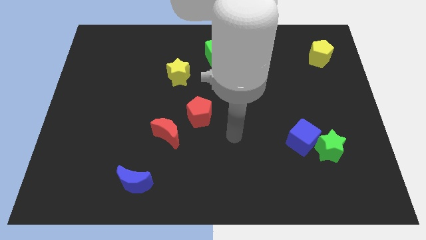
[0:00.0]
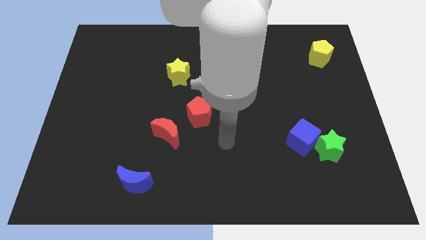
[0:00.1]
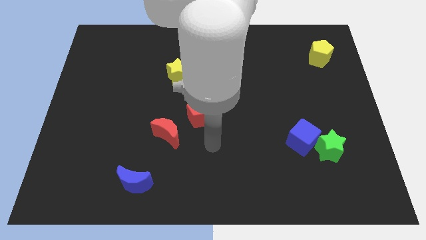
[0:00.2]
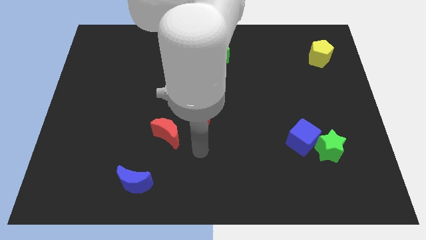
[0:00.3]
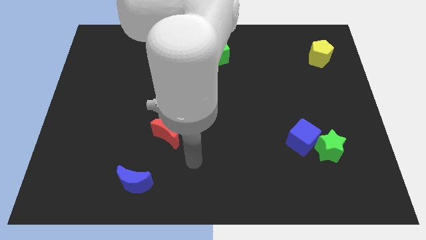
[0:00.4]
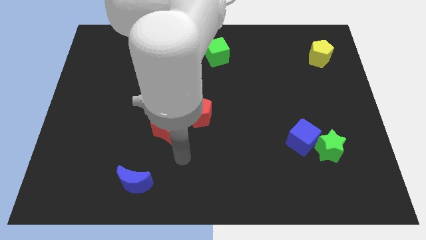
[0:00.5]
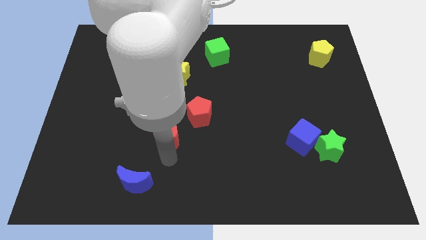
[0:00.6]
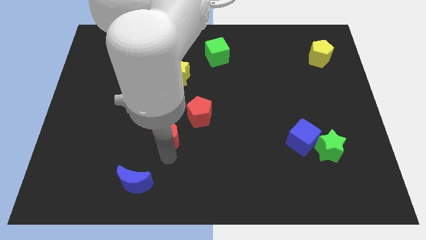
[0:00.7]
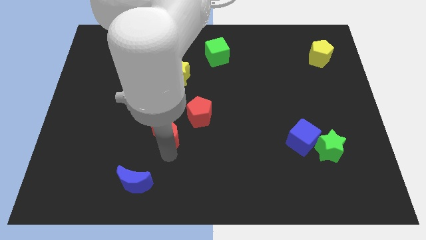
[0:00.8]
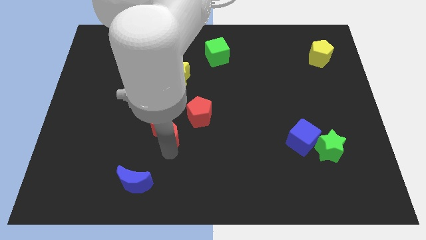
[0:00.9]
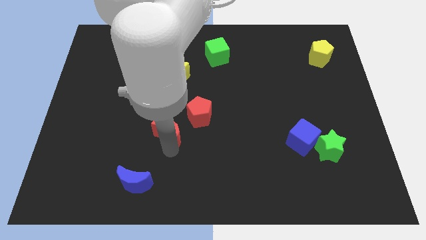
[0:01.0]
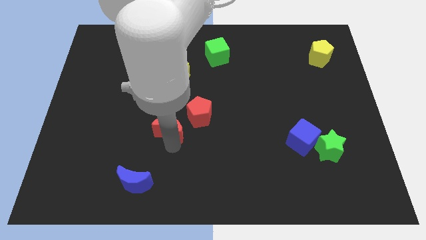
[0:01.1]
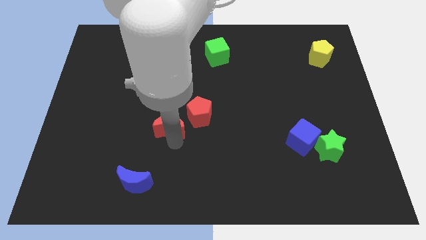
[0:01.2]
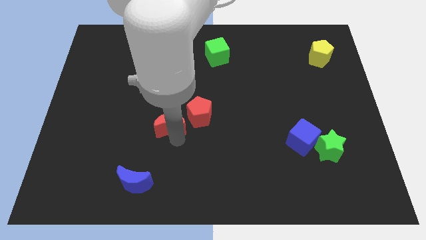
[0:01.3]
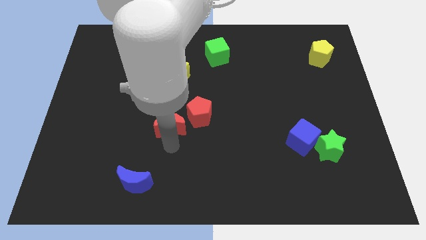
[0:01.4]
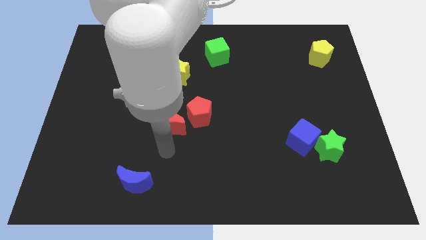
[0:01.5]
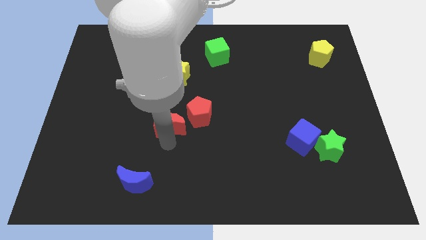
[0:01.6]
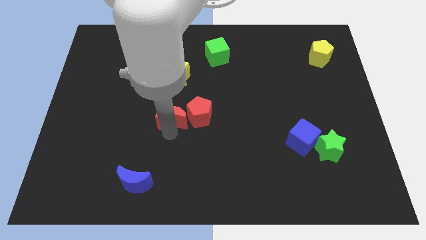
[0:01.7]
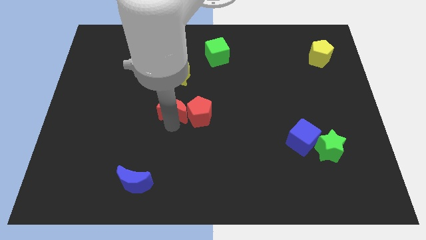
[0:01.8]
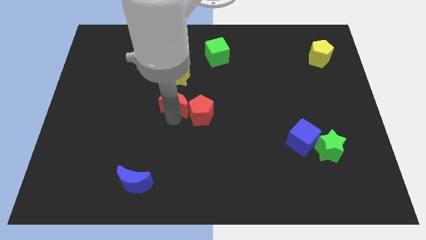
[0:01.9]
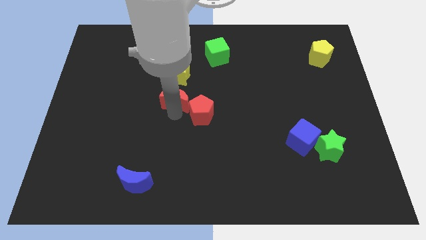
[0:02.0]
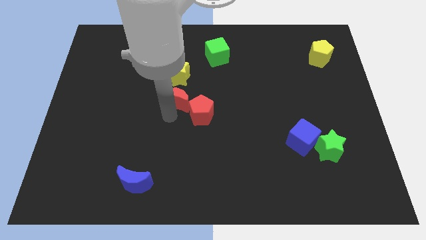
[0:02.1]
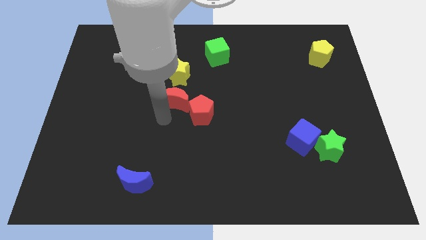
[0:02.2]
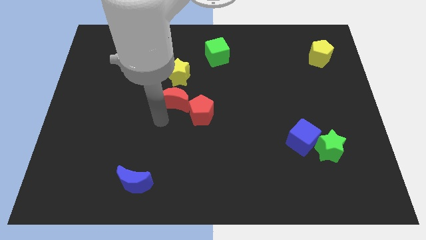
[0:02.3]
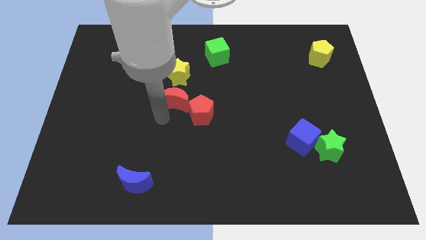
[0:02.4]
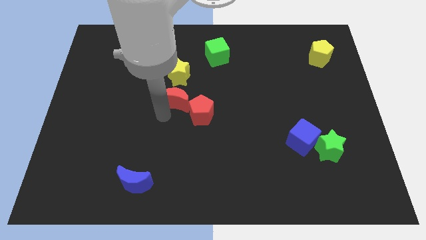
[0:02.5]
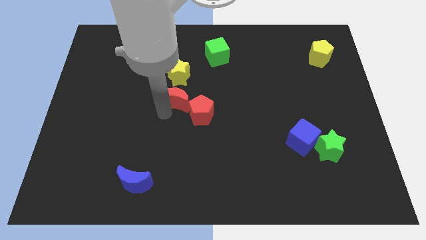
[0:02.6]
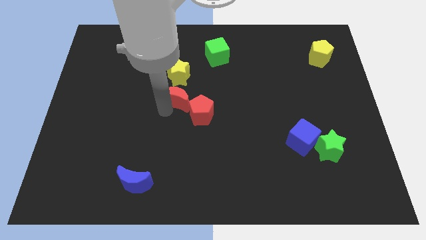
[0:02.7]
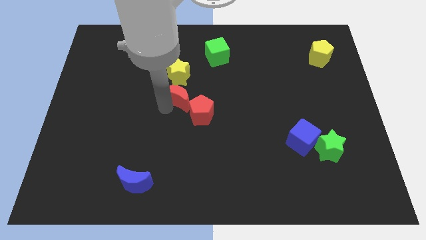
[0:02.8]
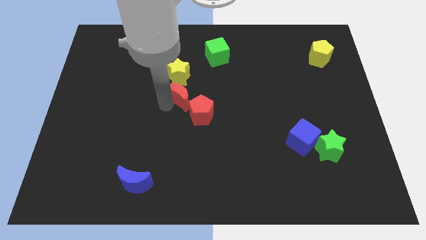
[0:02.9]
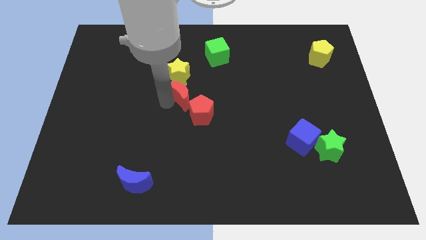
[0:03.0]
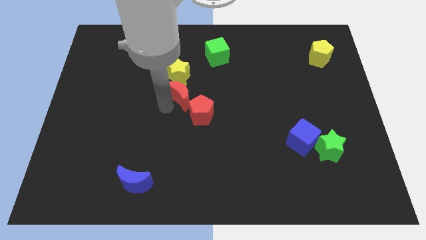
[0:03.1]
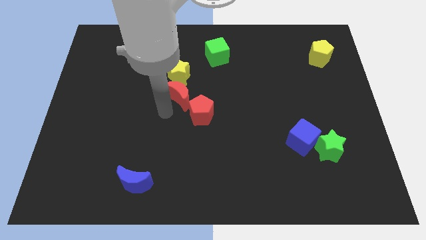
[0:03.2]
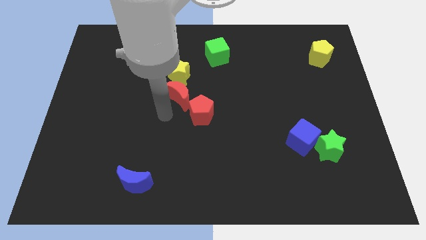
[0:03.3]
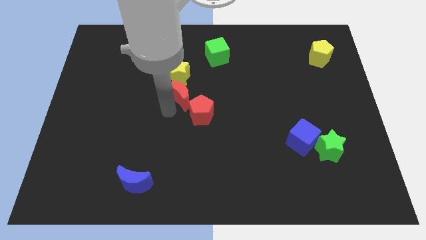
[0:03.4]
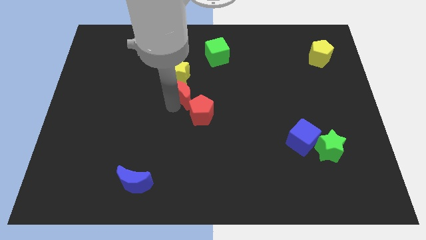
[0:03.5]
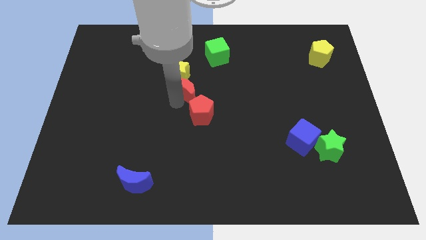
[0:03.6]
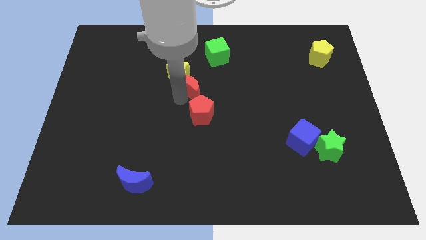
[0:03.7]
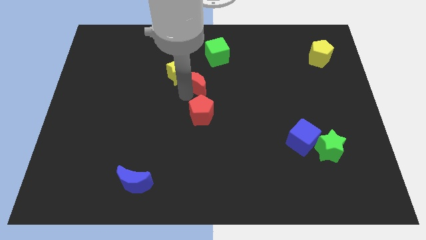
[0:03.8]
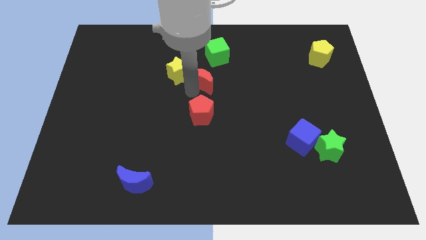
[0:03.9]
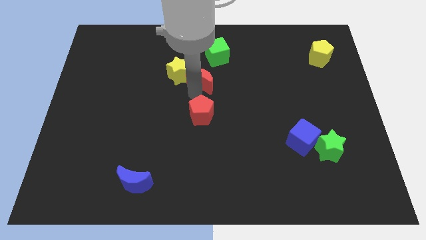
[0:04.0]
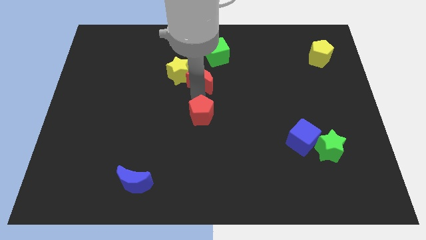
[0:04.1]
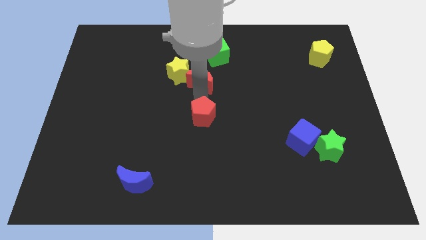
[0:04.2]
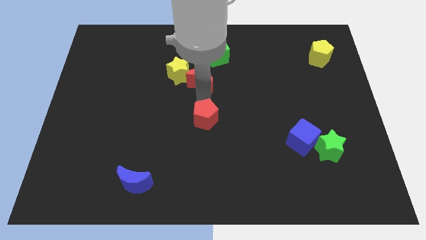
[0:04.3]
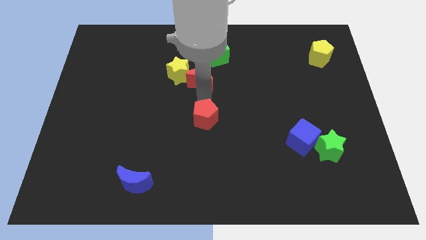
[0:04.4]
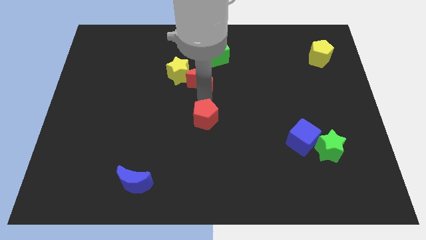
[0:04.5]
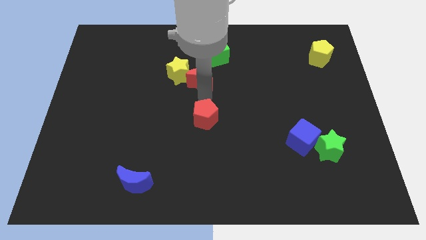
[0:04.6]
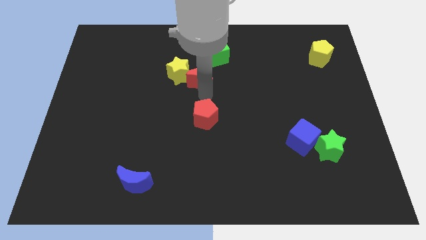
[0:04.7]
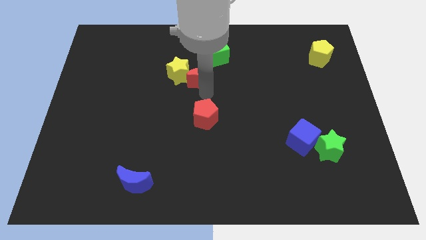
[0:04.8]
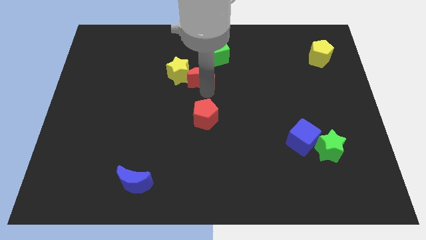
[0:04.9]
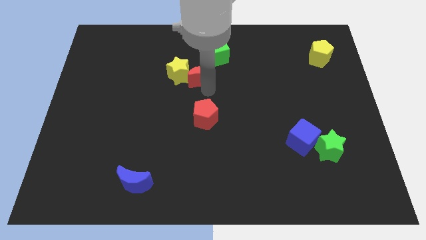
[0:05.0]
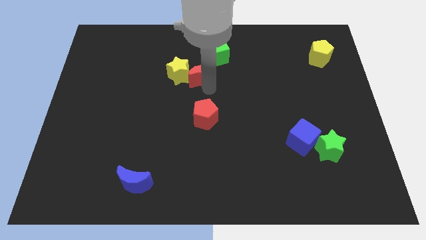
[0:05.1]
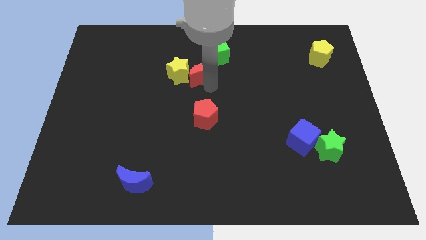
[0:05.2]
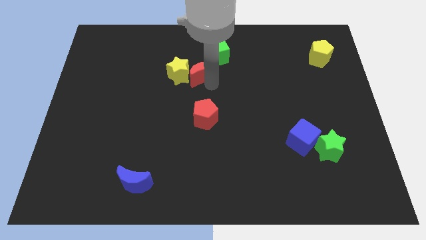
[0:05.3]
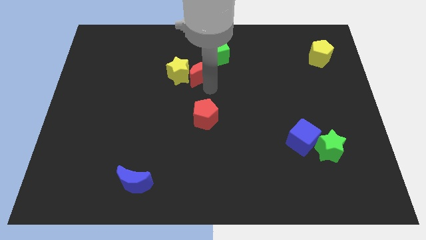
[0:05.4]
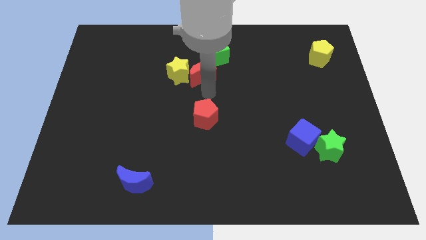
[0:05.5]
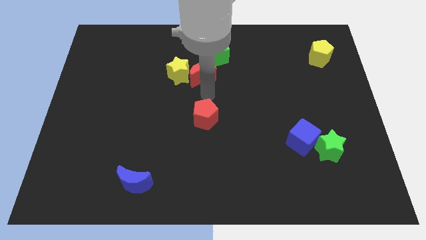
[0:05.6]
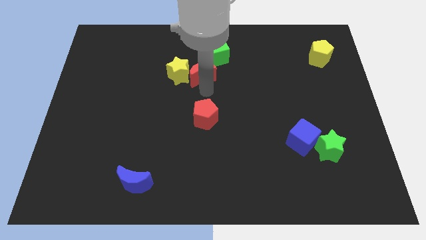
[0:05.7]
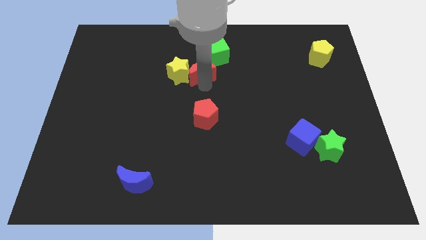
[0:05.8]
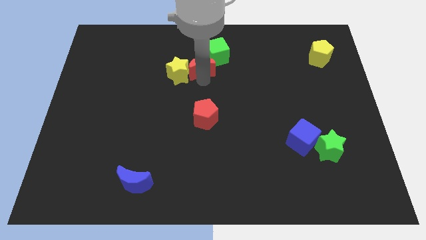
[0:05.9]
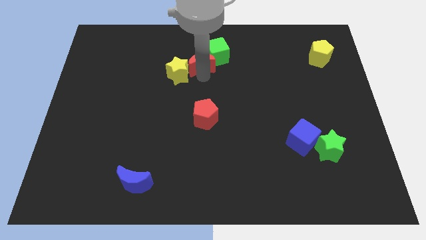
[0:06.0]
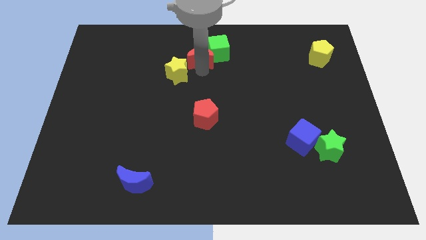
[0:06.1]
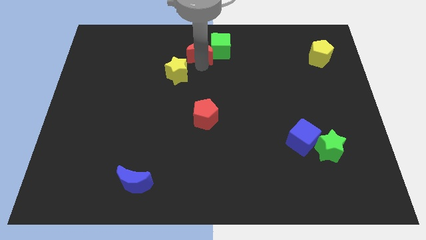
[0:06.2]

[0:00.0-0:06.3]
move the red moon to the top

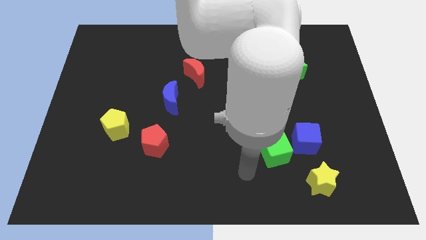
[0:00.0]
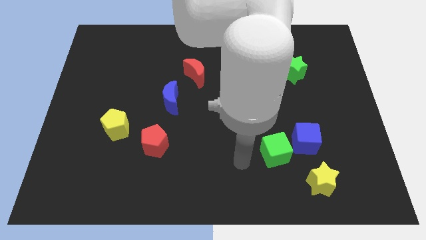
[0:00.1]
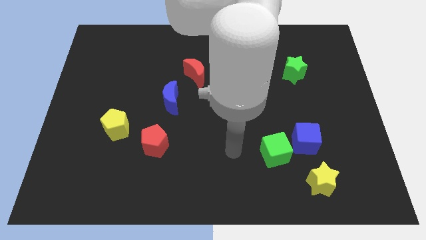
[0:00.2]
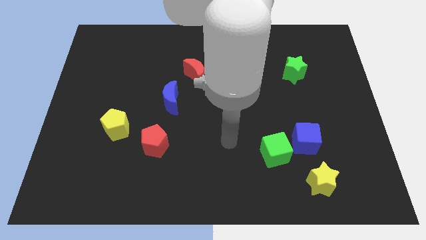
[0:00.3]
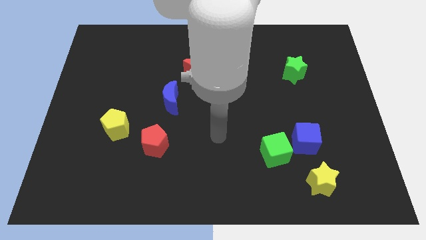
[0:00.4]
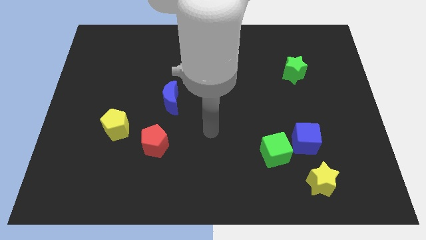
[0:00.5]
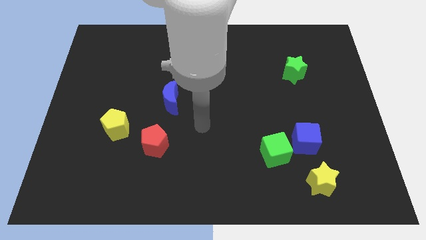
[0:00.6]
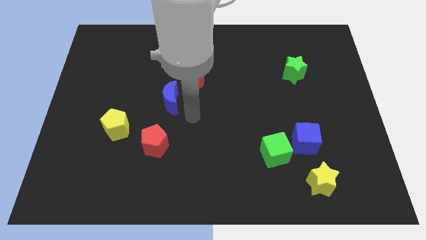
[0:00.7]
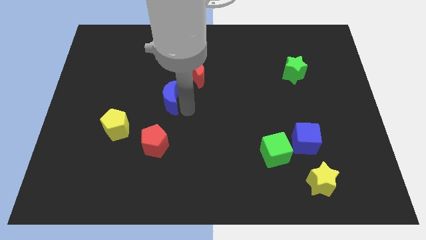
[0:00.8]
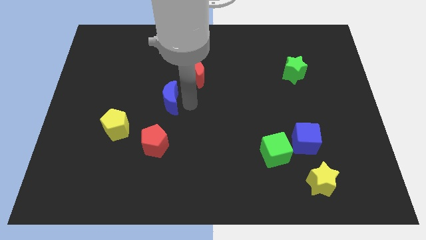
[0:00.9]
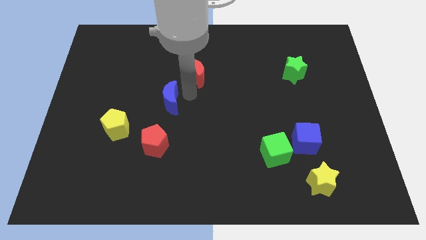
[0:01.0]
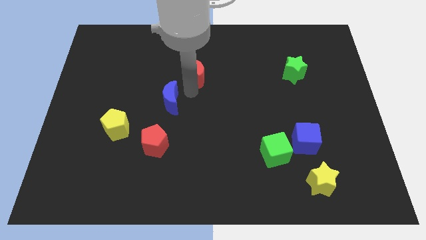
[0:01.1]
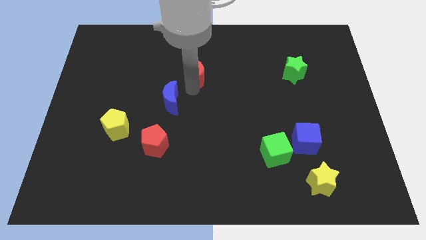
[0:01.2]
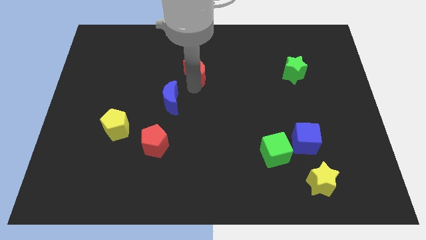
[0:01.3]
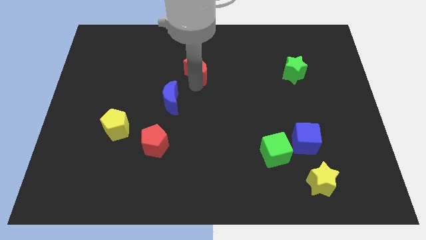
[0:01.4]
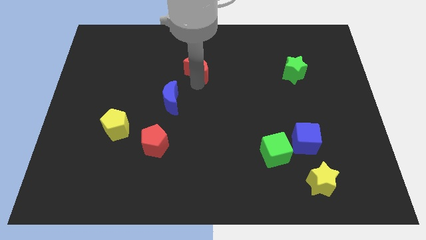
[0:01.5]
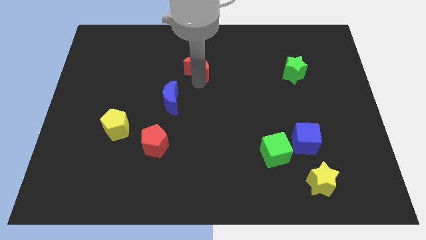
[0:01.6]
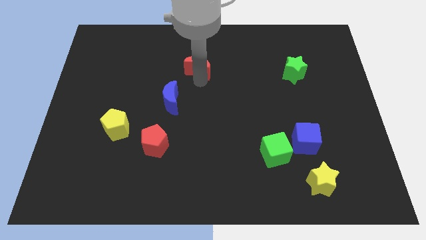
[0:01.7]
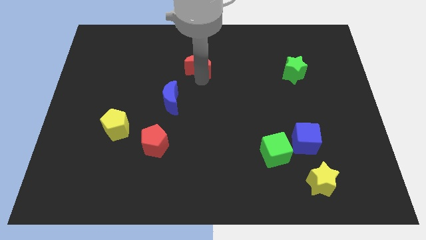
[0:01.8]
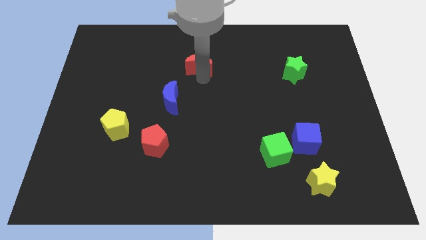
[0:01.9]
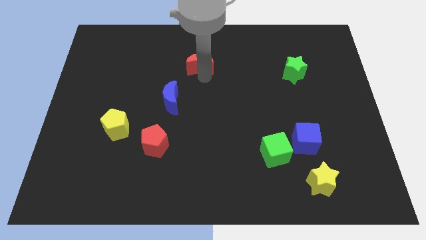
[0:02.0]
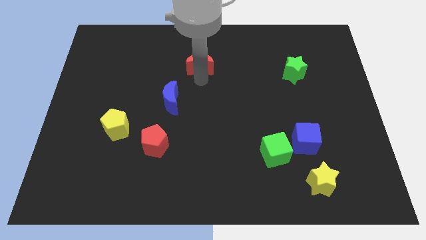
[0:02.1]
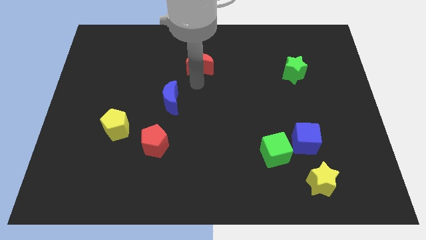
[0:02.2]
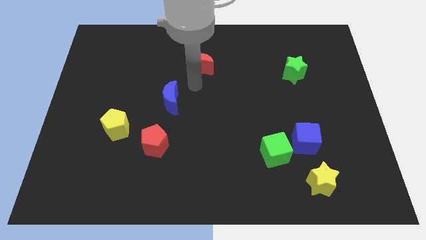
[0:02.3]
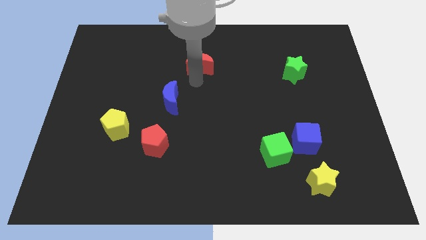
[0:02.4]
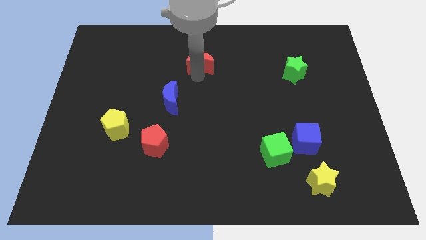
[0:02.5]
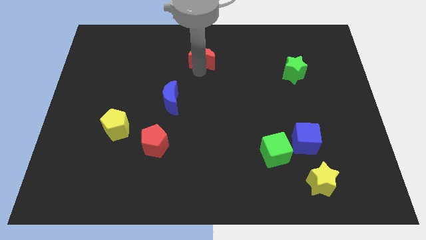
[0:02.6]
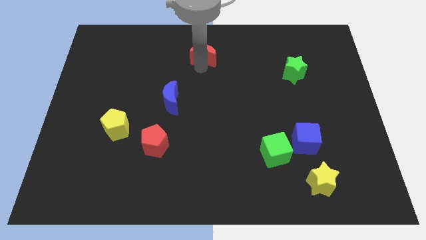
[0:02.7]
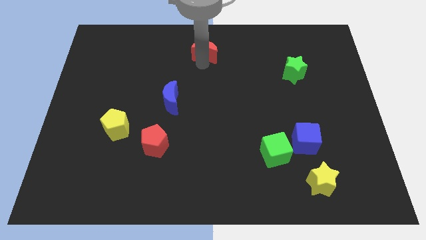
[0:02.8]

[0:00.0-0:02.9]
slide the red moon to the top side
